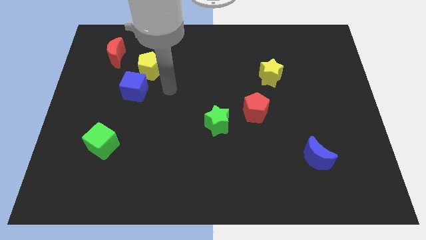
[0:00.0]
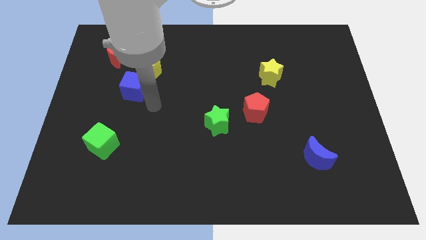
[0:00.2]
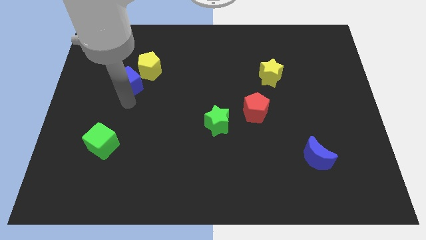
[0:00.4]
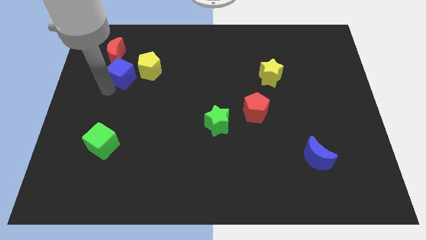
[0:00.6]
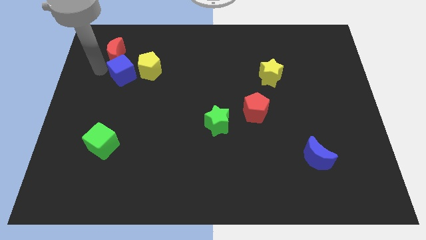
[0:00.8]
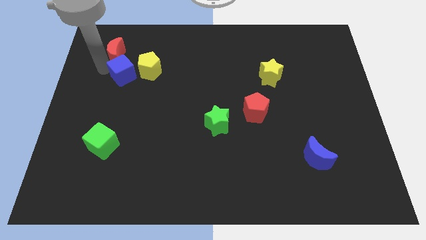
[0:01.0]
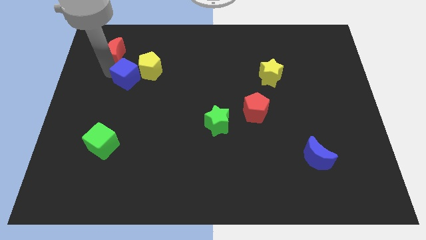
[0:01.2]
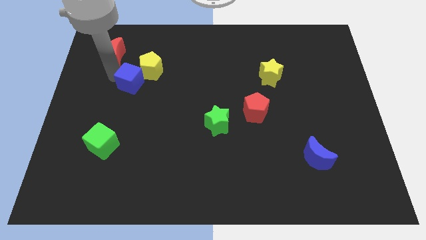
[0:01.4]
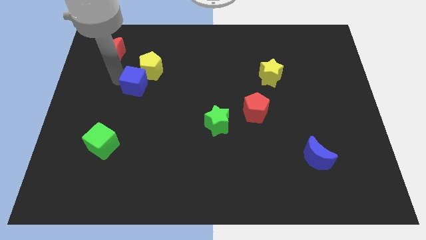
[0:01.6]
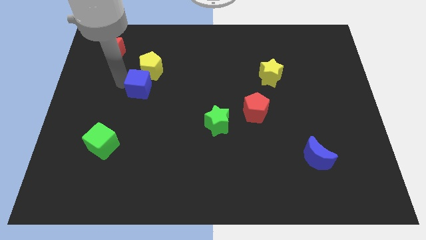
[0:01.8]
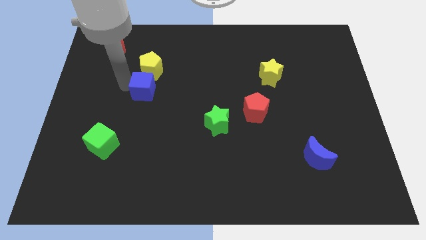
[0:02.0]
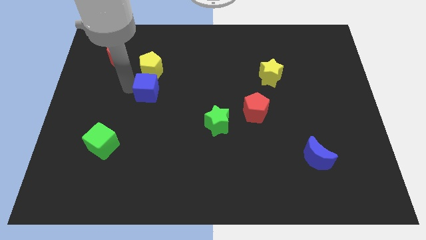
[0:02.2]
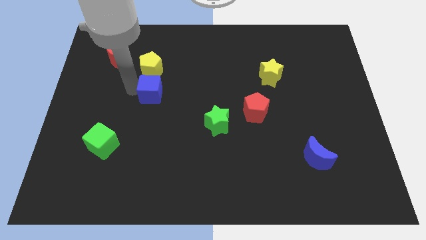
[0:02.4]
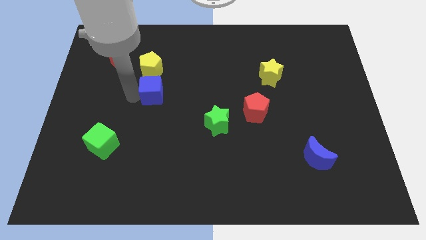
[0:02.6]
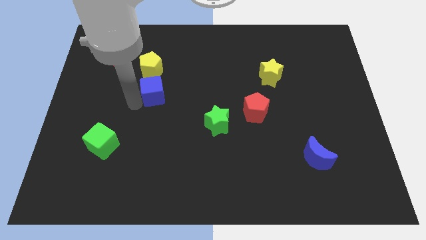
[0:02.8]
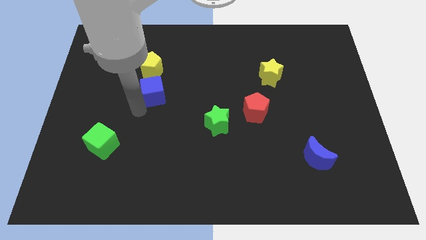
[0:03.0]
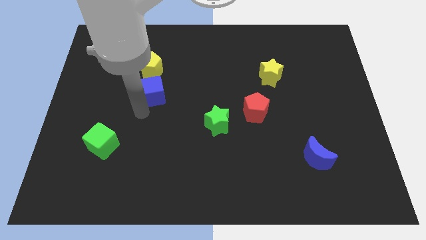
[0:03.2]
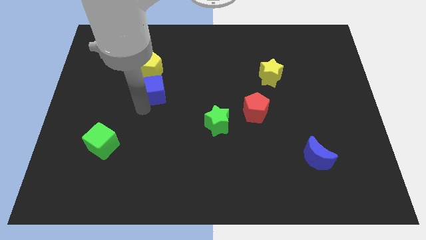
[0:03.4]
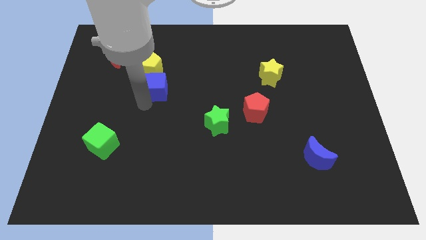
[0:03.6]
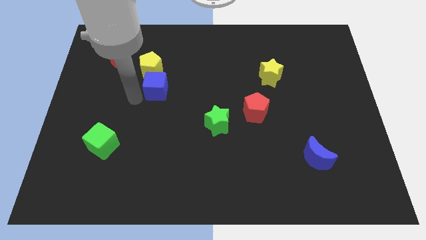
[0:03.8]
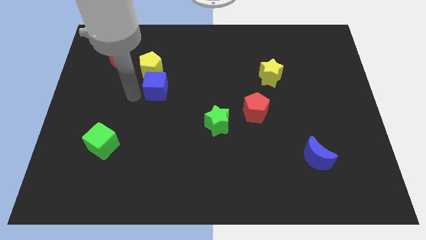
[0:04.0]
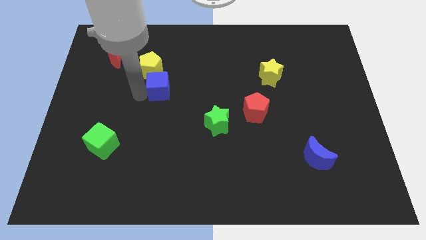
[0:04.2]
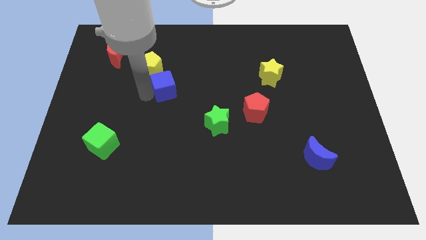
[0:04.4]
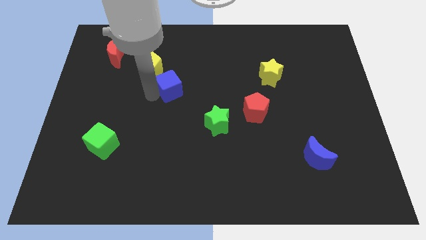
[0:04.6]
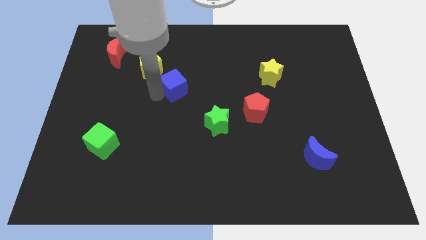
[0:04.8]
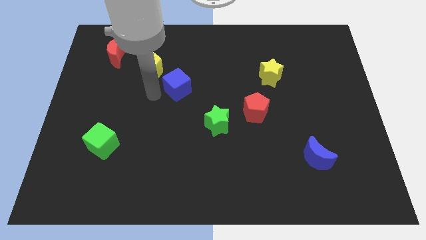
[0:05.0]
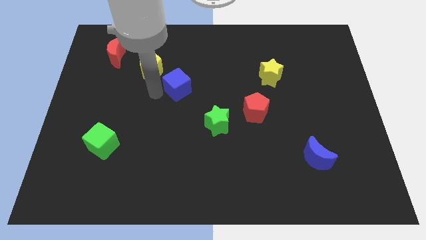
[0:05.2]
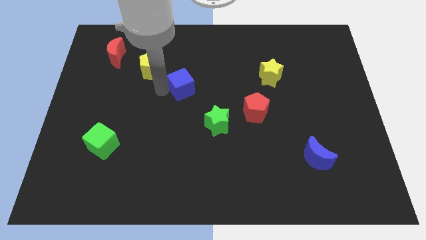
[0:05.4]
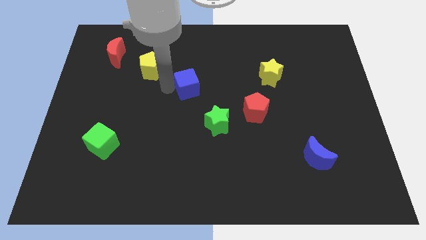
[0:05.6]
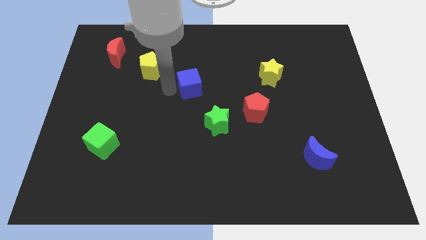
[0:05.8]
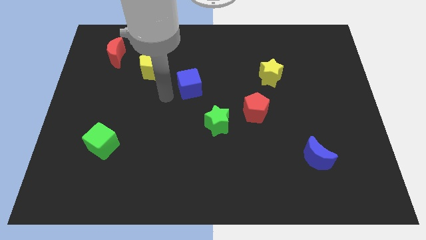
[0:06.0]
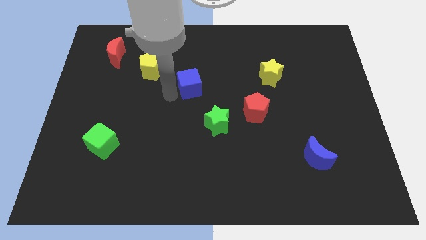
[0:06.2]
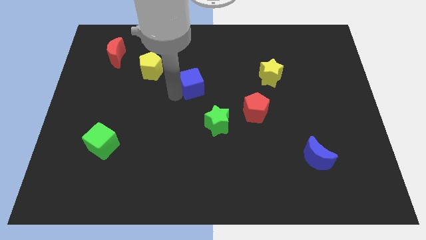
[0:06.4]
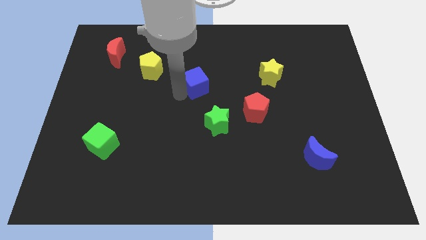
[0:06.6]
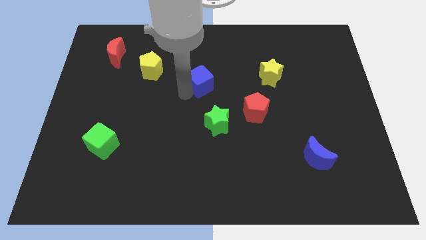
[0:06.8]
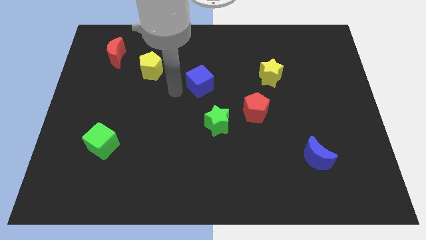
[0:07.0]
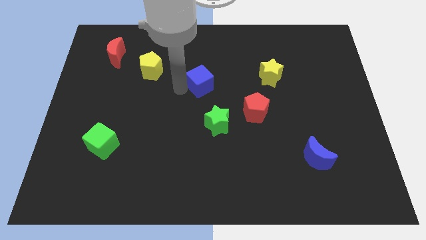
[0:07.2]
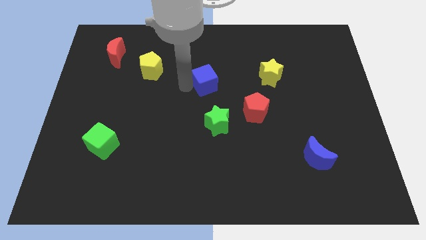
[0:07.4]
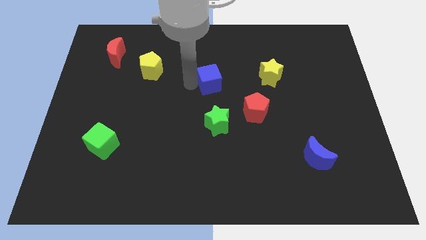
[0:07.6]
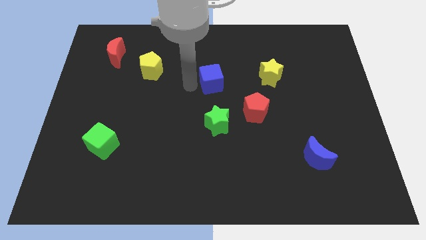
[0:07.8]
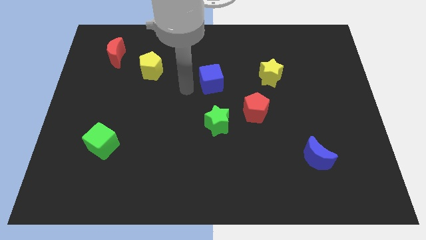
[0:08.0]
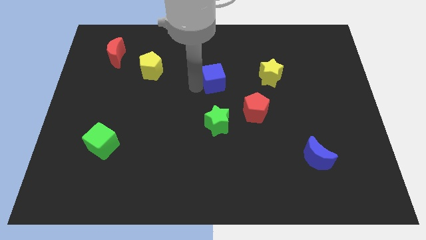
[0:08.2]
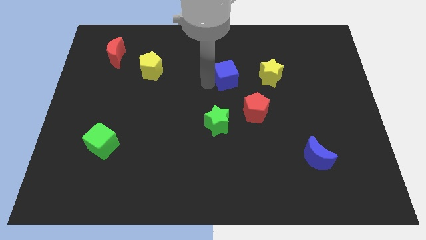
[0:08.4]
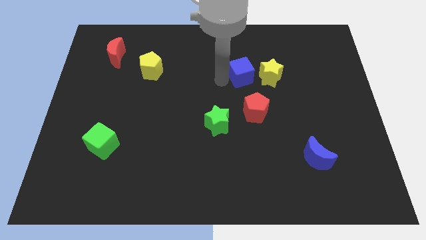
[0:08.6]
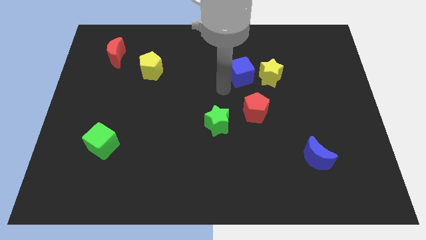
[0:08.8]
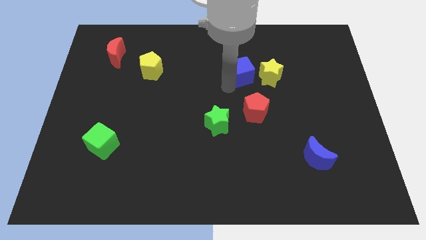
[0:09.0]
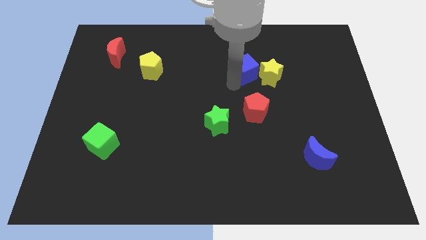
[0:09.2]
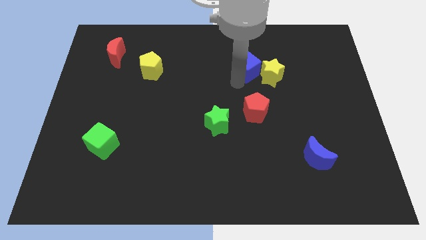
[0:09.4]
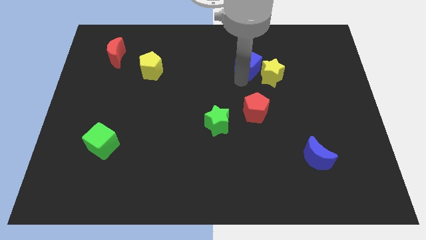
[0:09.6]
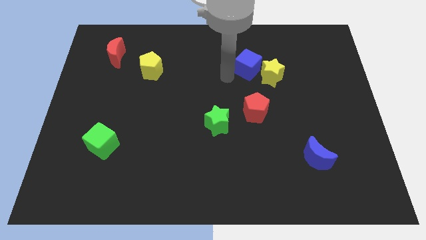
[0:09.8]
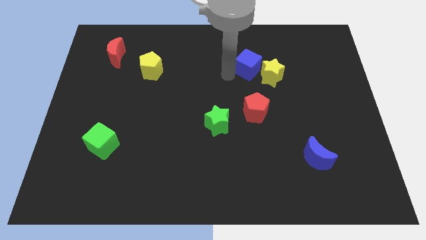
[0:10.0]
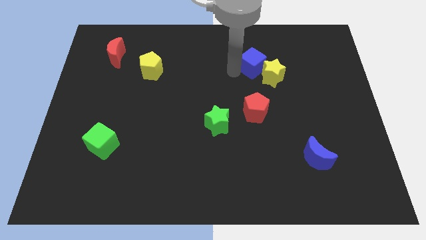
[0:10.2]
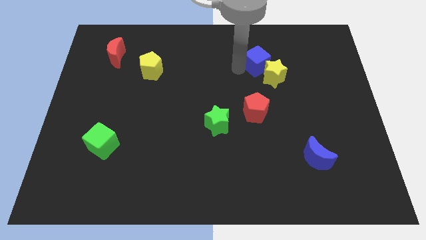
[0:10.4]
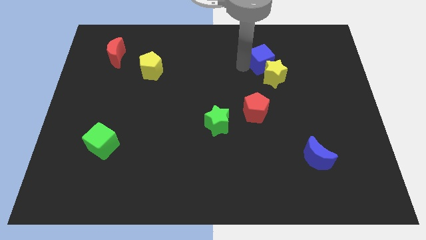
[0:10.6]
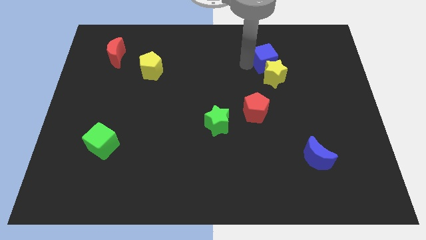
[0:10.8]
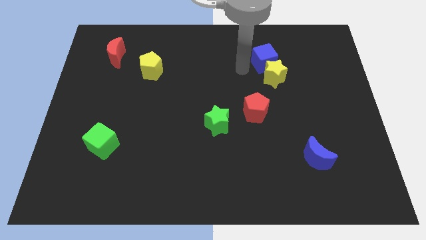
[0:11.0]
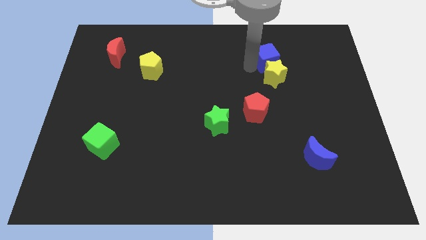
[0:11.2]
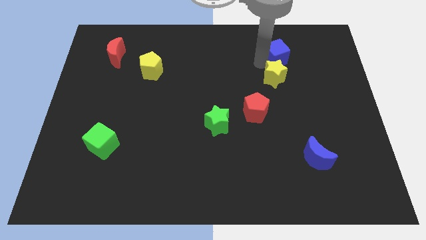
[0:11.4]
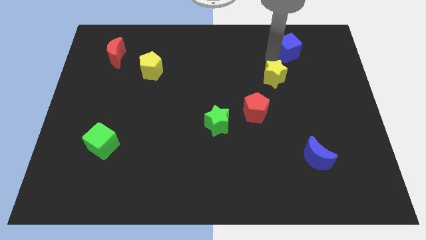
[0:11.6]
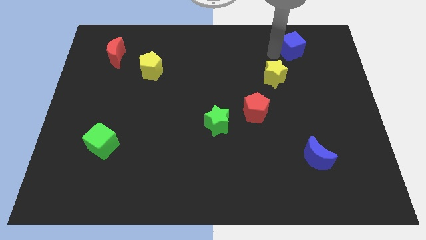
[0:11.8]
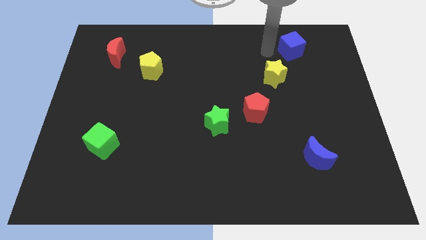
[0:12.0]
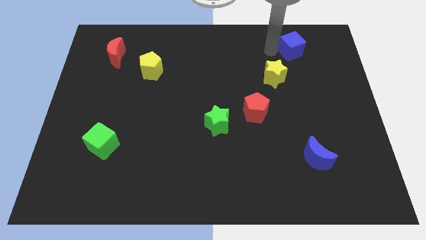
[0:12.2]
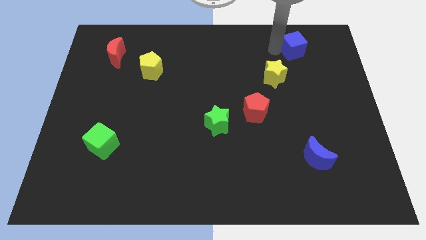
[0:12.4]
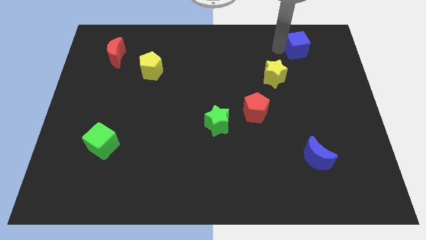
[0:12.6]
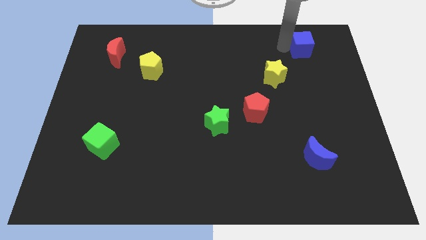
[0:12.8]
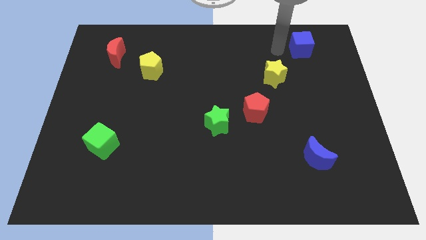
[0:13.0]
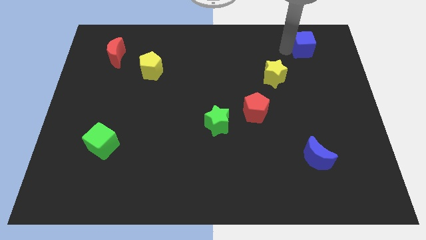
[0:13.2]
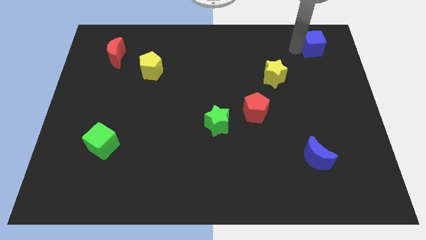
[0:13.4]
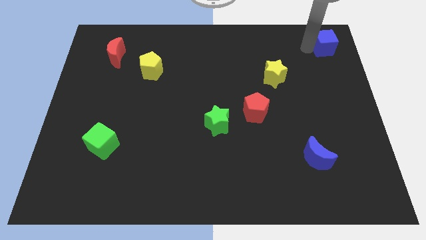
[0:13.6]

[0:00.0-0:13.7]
slide the blue cube to the upper right corner
